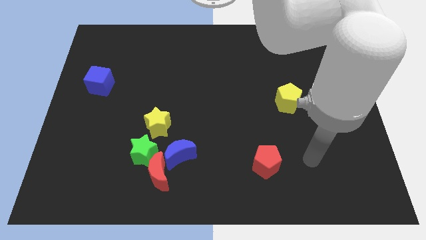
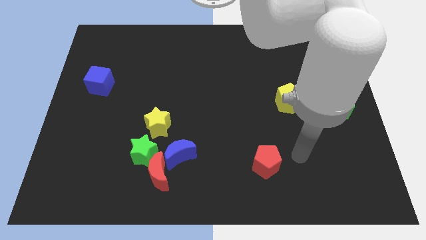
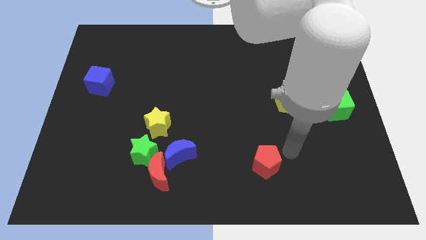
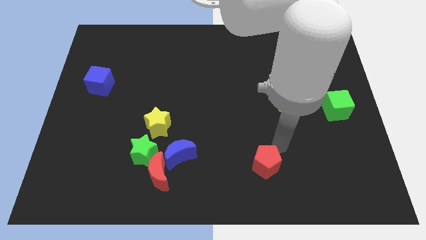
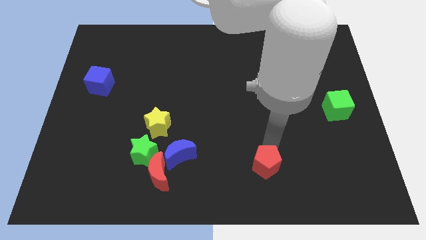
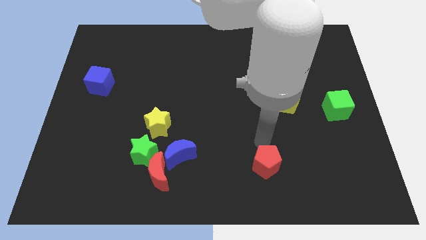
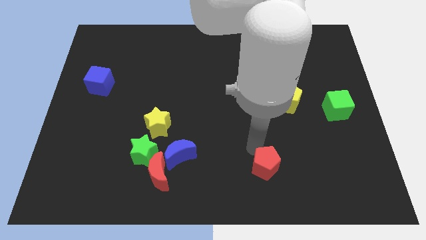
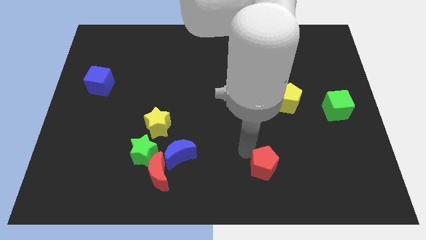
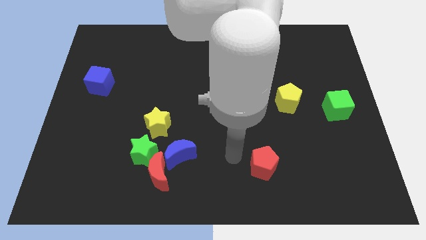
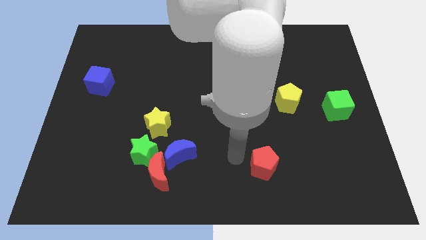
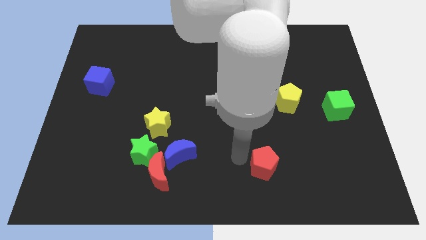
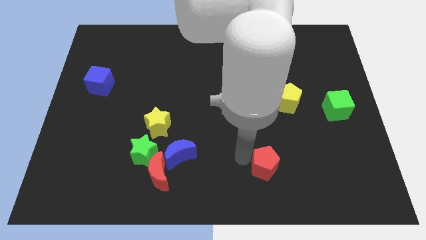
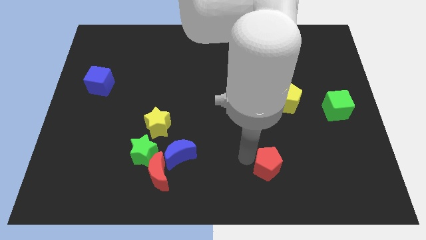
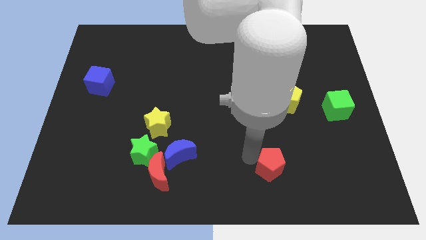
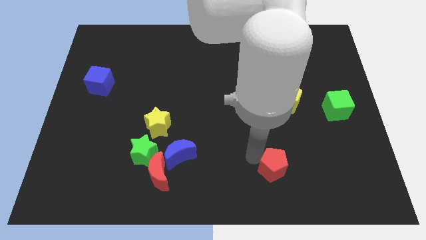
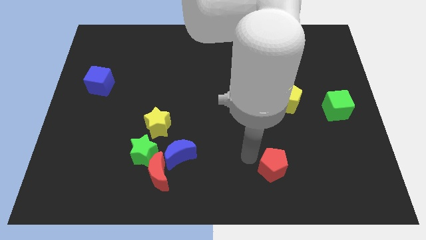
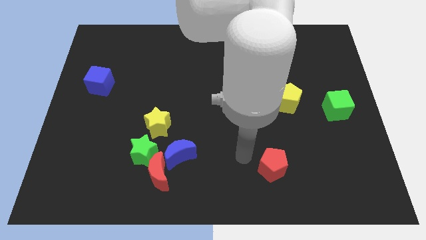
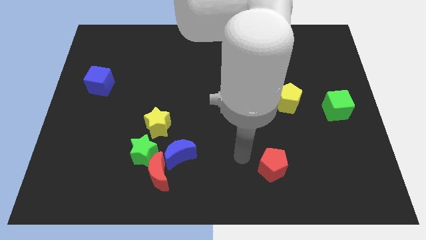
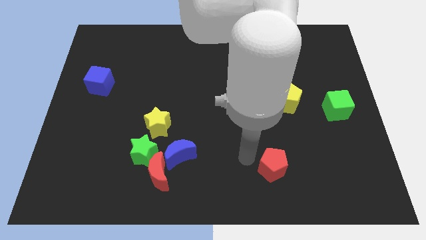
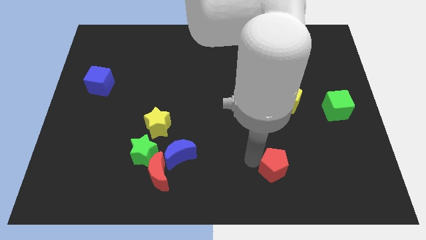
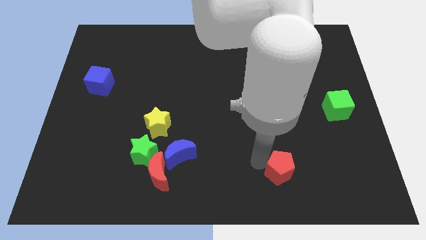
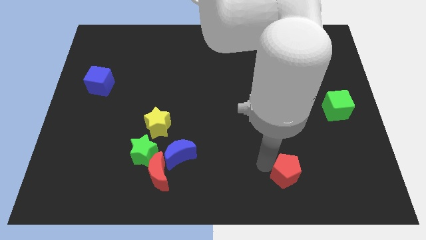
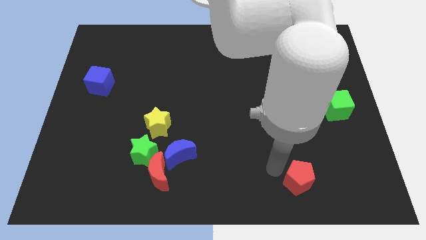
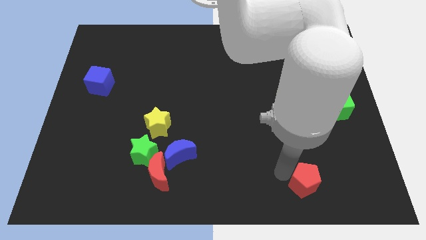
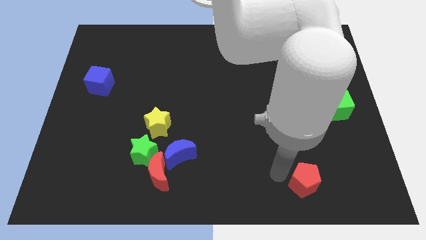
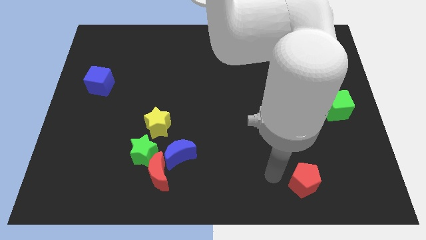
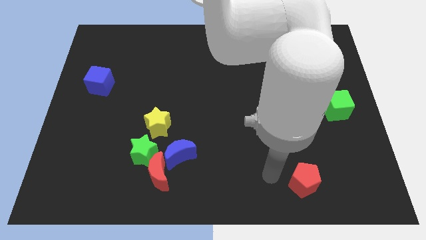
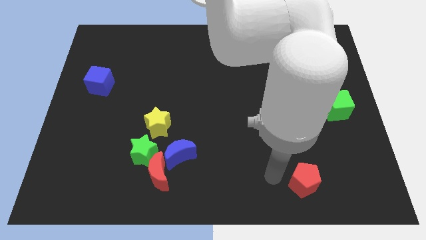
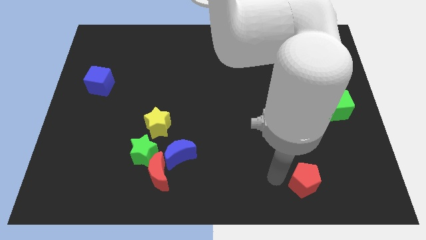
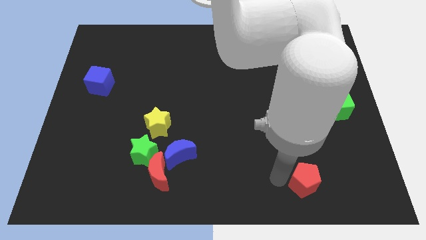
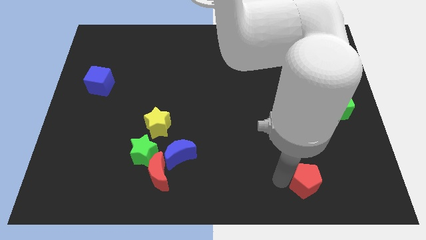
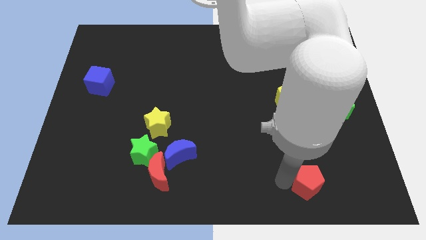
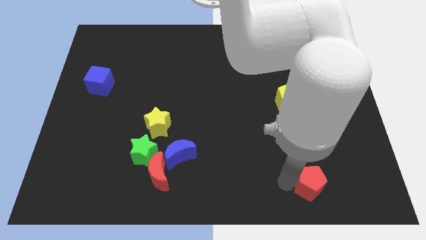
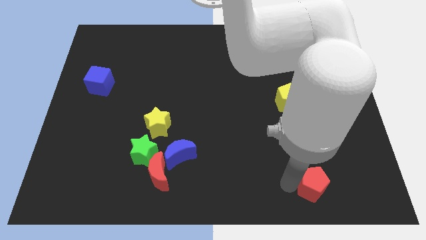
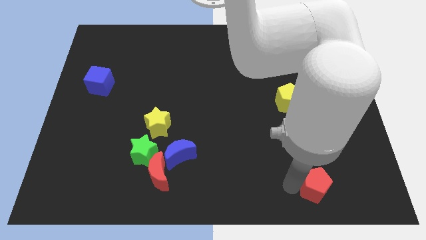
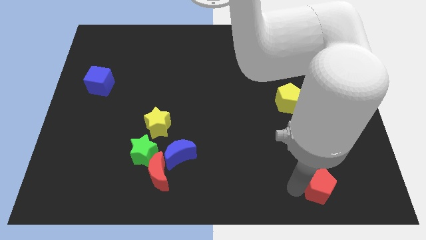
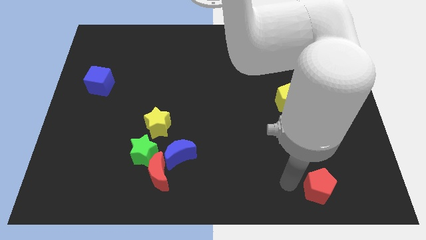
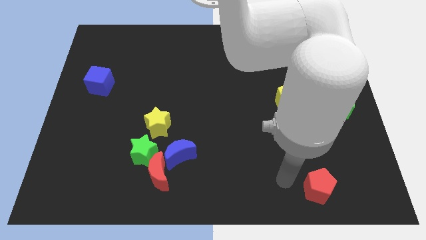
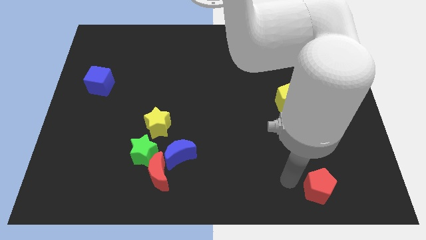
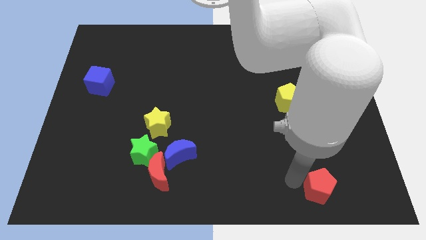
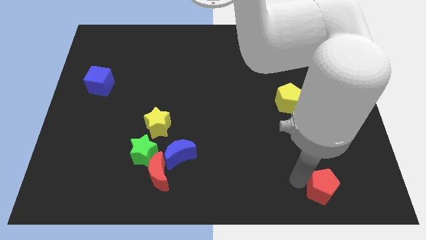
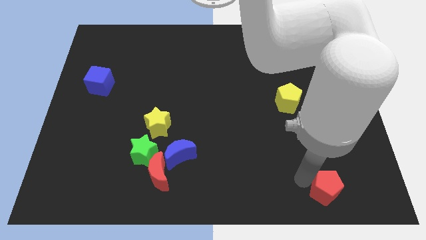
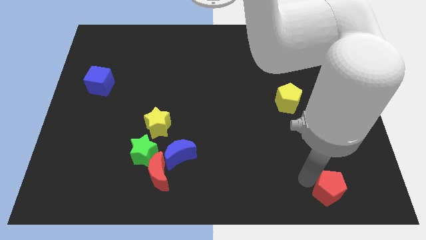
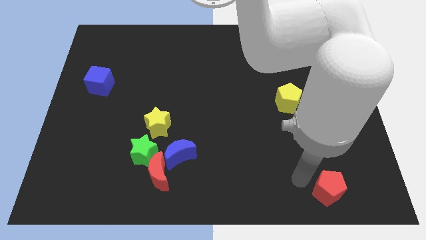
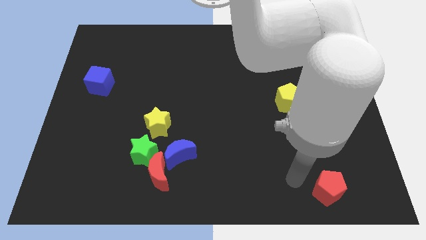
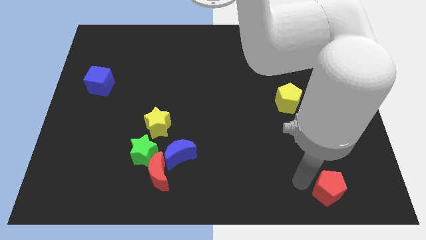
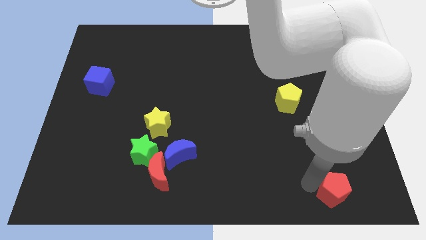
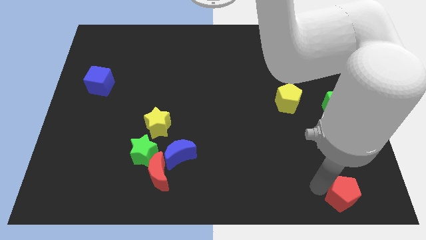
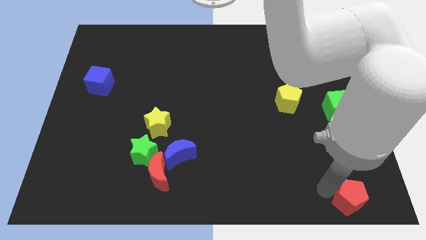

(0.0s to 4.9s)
put the red pentagon to the bottom right corner

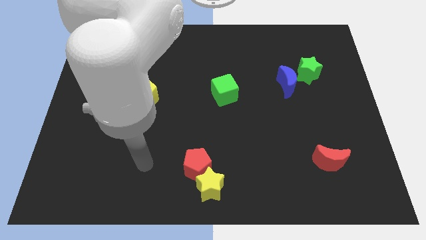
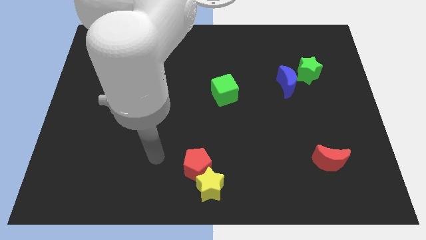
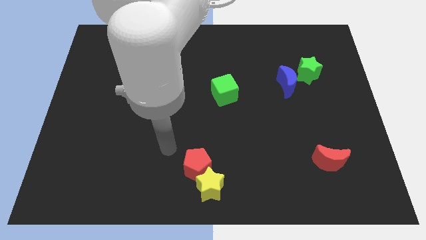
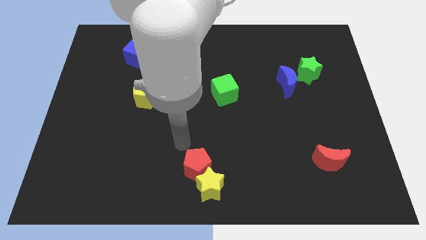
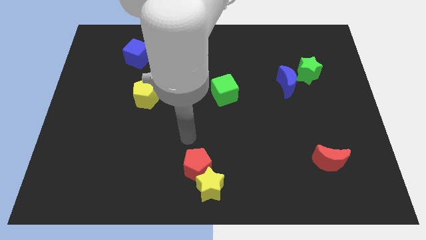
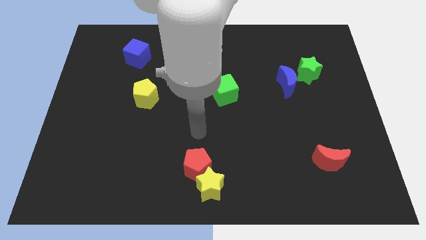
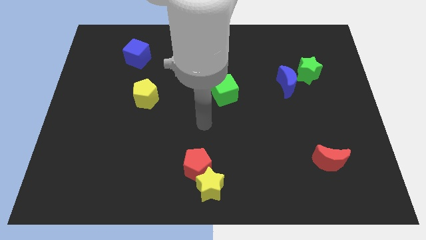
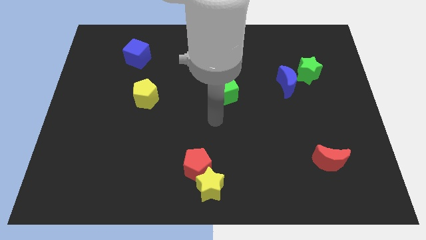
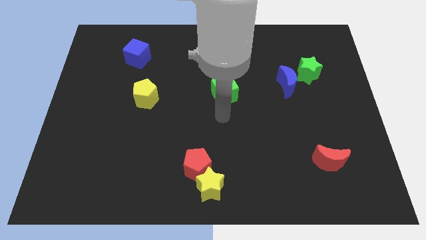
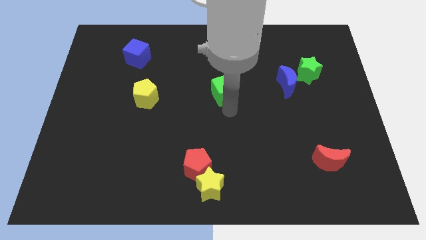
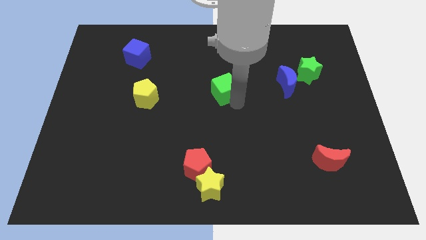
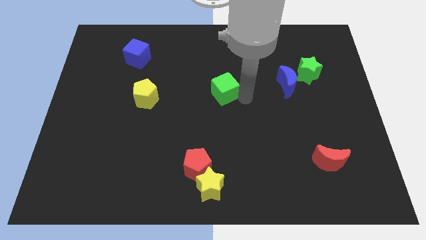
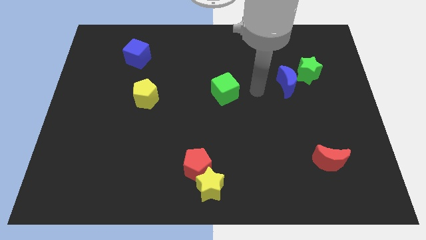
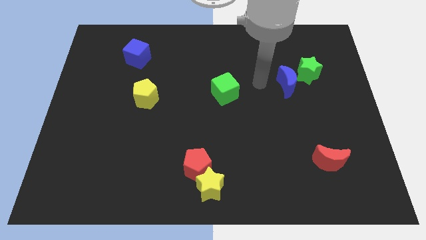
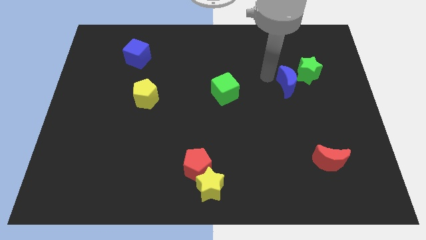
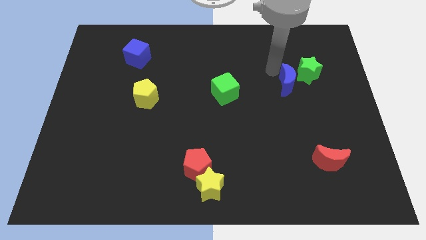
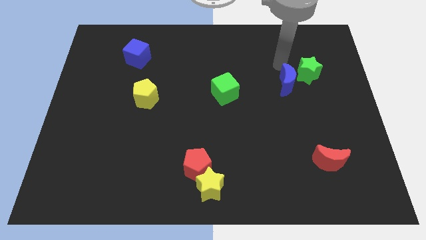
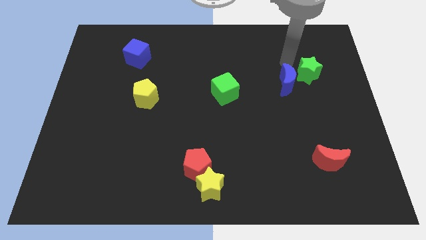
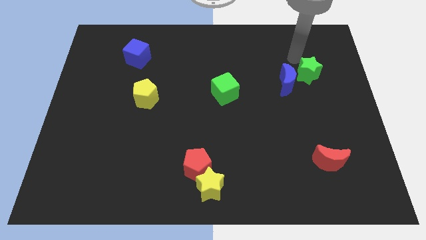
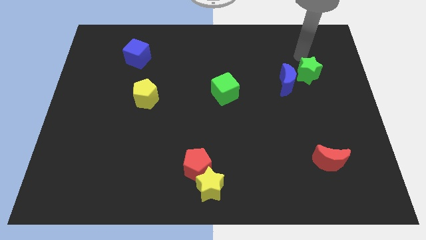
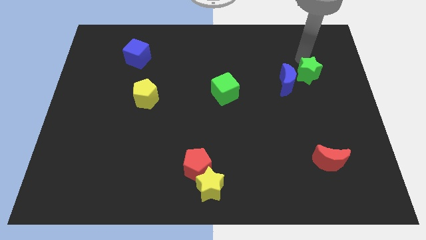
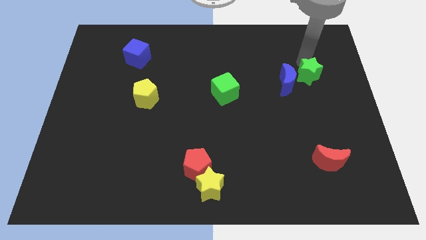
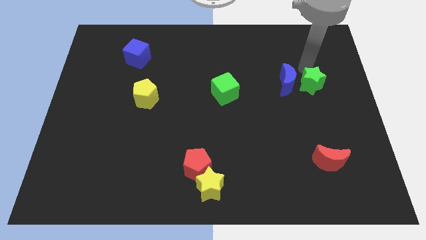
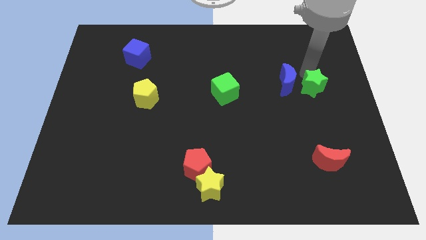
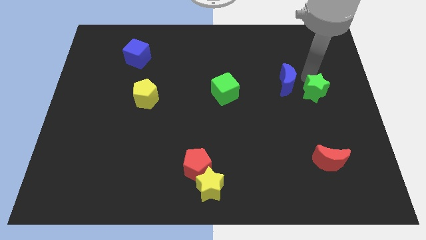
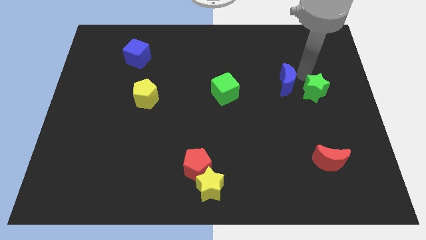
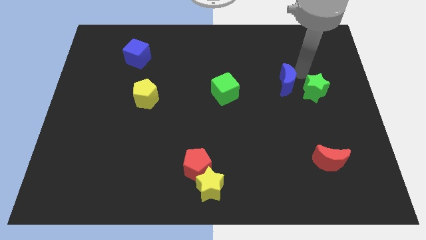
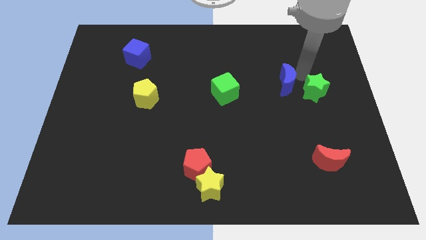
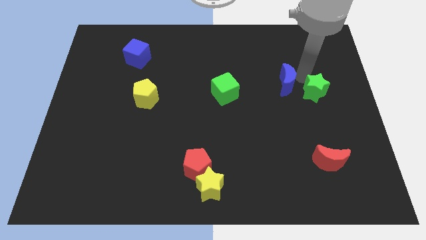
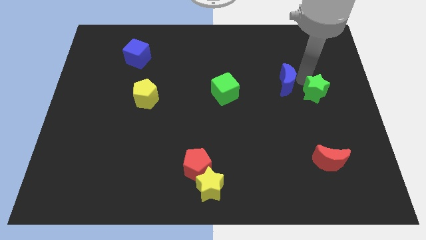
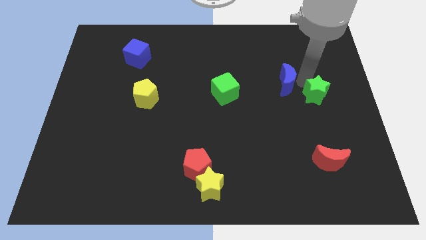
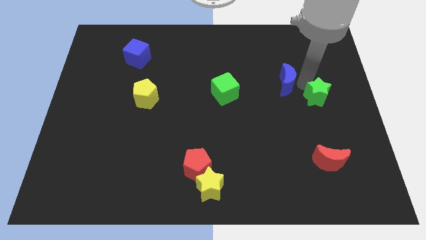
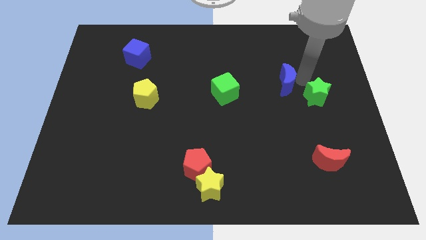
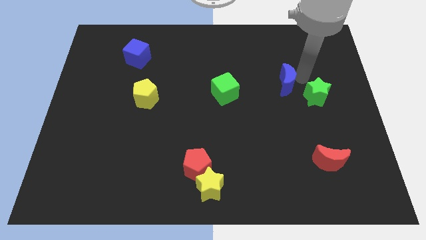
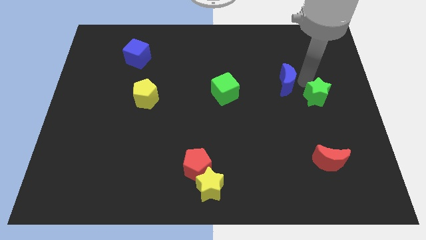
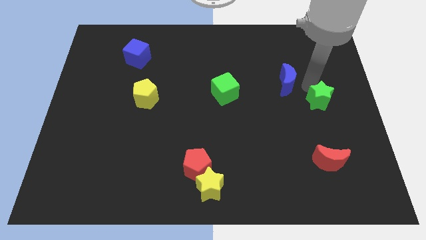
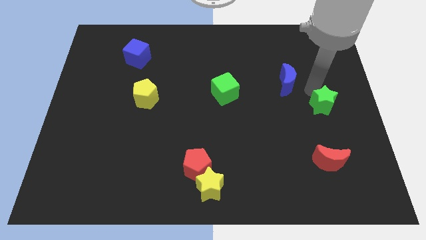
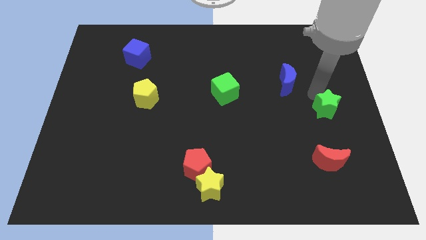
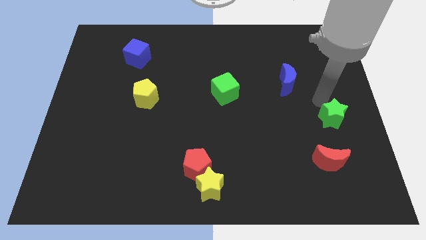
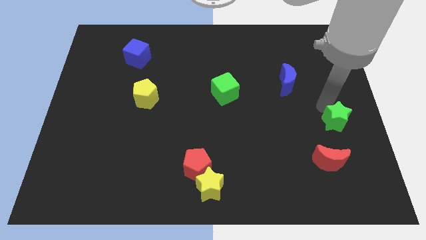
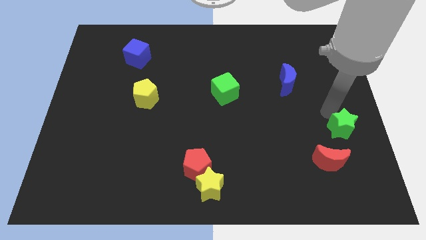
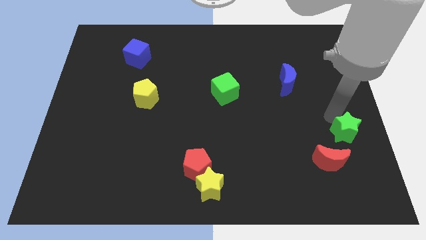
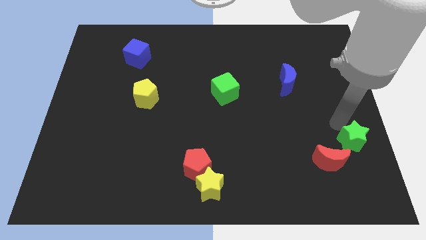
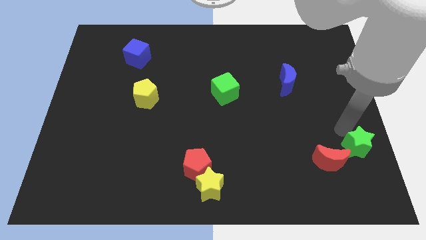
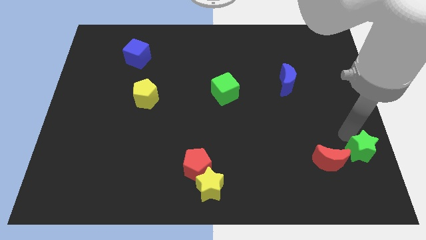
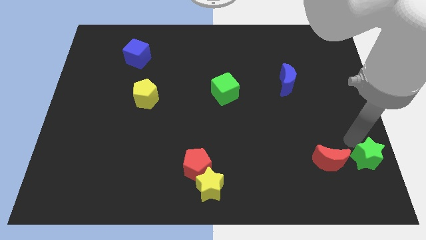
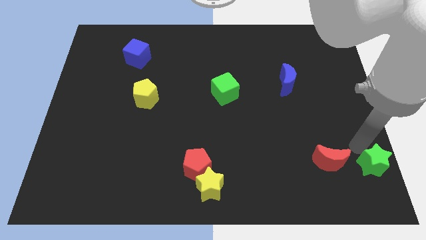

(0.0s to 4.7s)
slide the green star to the bottom right
